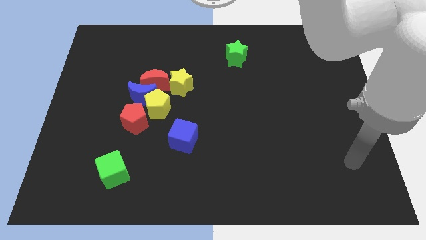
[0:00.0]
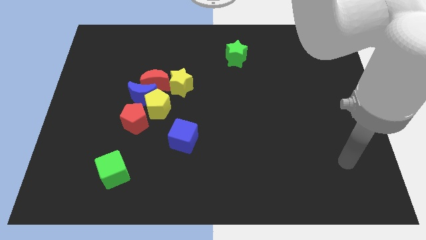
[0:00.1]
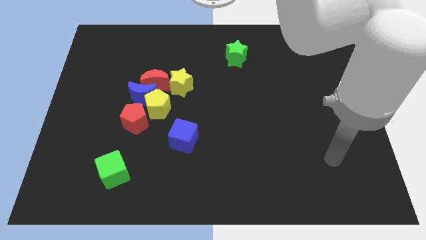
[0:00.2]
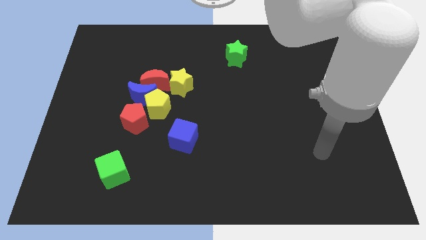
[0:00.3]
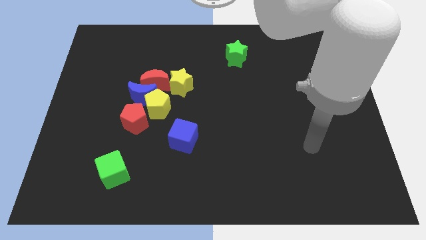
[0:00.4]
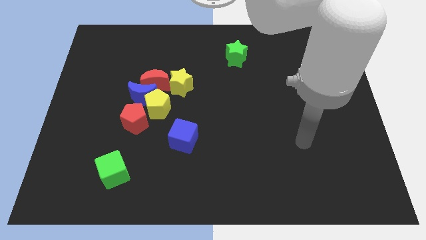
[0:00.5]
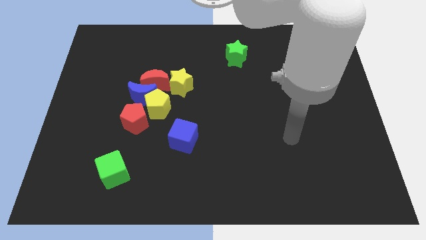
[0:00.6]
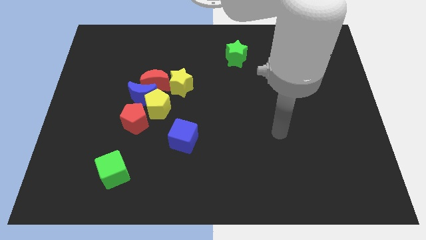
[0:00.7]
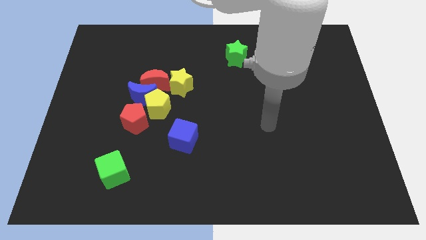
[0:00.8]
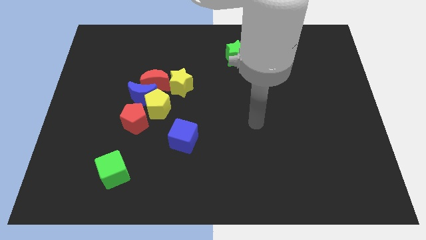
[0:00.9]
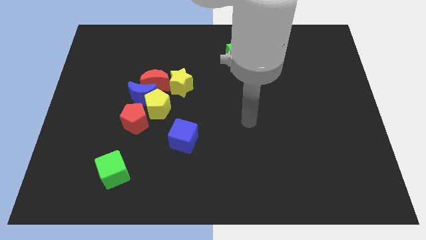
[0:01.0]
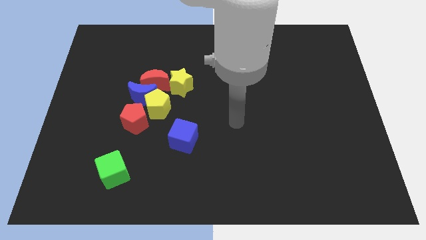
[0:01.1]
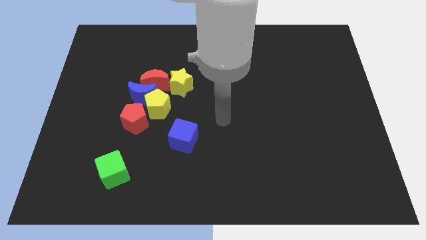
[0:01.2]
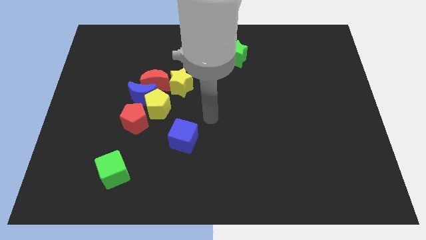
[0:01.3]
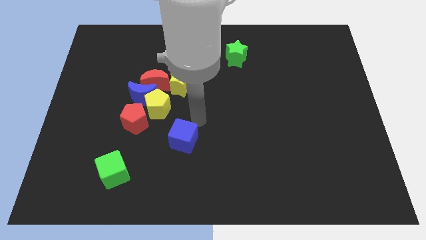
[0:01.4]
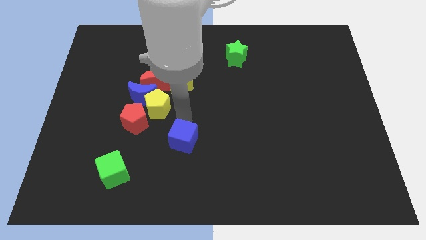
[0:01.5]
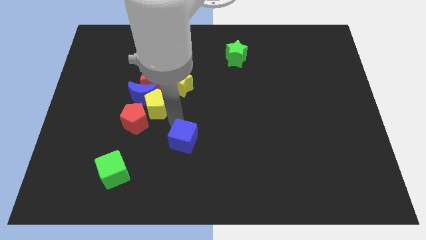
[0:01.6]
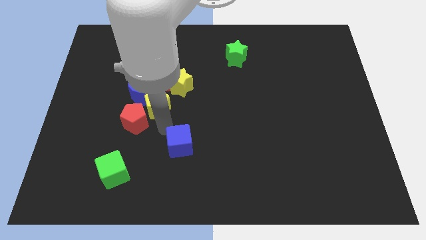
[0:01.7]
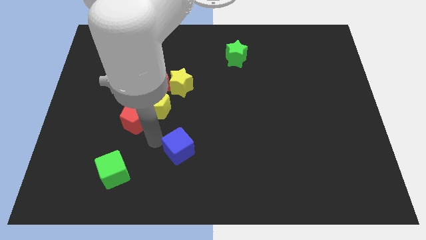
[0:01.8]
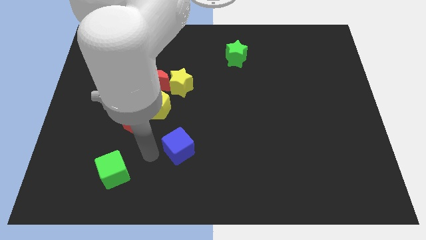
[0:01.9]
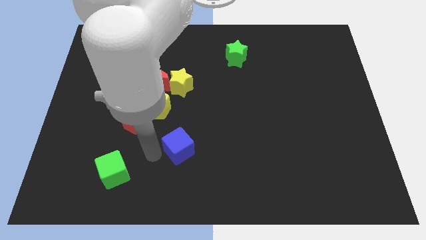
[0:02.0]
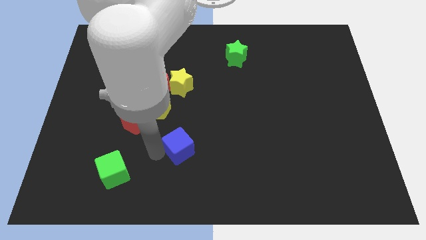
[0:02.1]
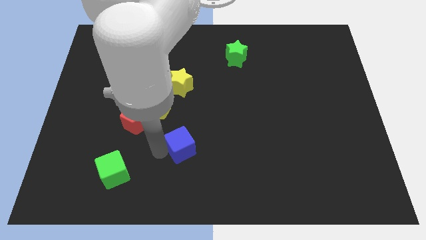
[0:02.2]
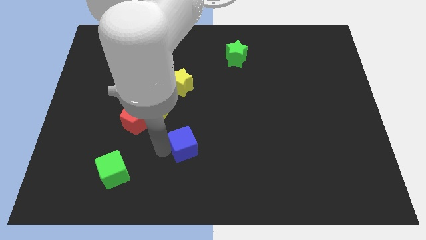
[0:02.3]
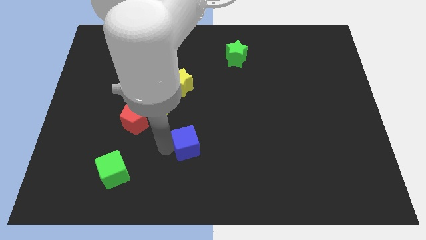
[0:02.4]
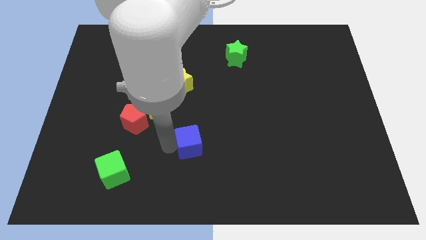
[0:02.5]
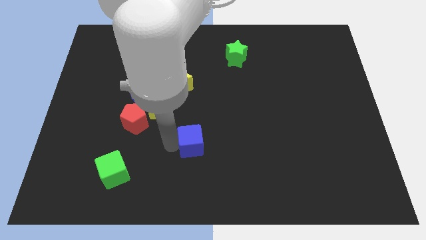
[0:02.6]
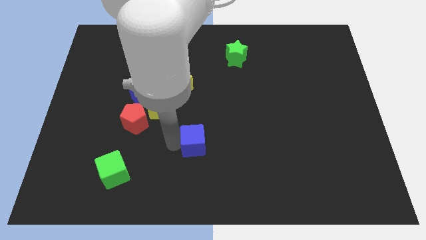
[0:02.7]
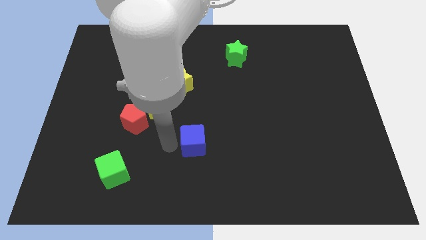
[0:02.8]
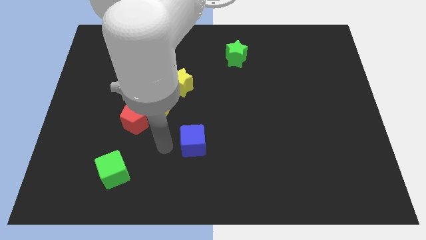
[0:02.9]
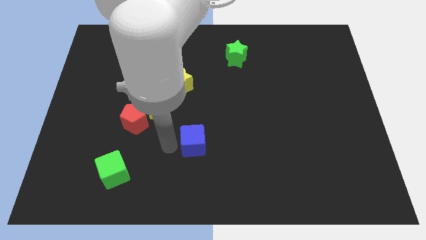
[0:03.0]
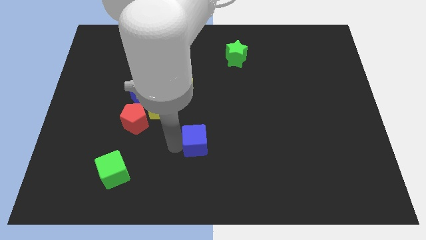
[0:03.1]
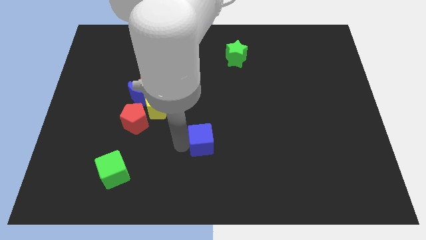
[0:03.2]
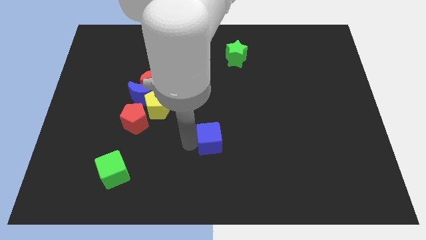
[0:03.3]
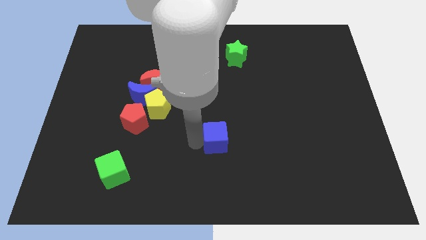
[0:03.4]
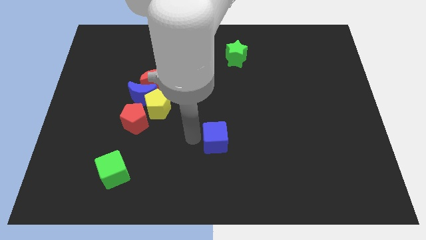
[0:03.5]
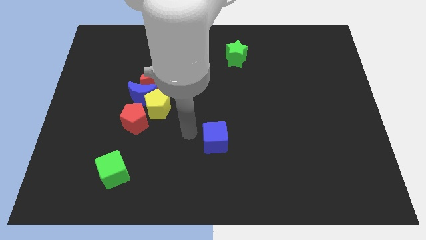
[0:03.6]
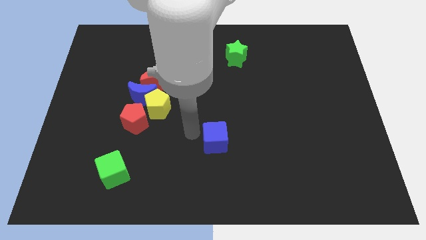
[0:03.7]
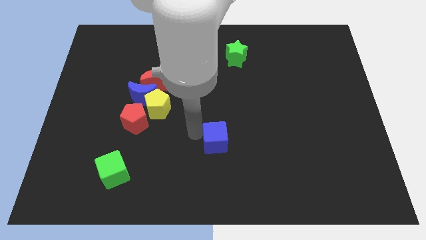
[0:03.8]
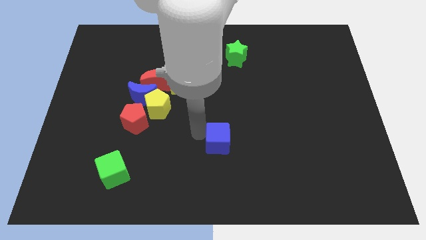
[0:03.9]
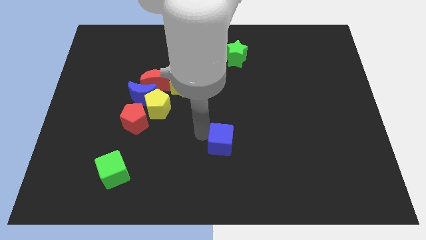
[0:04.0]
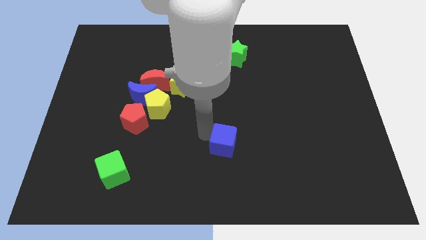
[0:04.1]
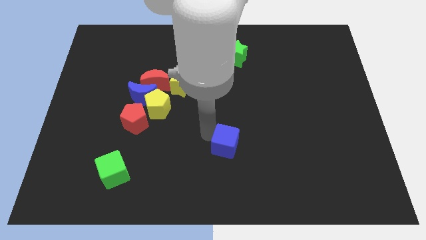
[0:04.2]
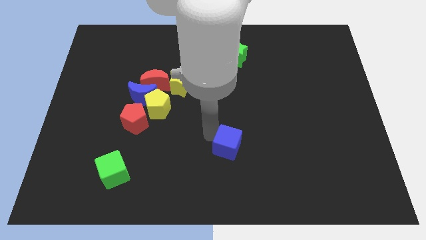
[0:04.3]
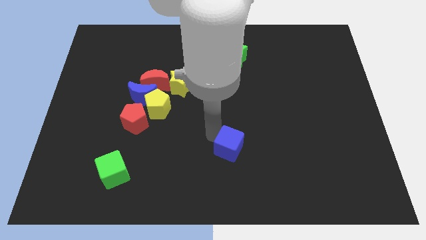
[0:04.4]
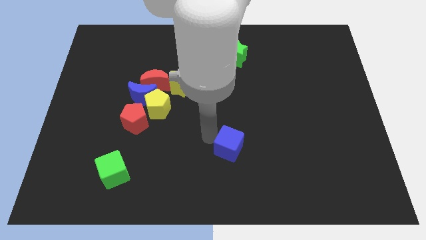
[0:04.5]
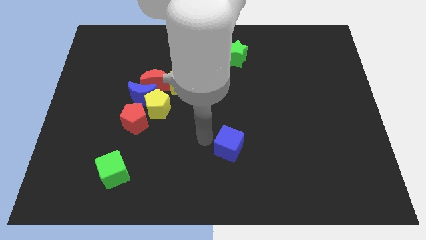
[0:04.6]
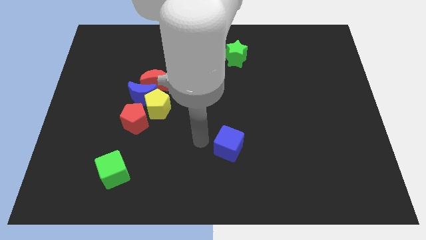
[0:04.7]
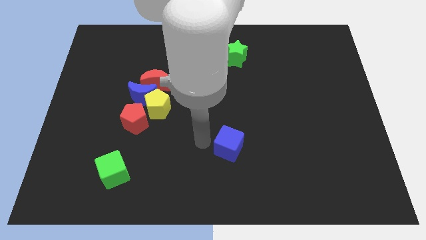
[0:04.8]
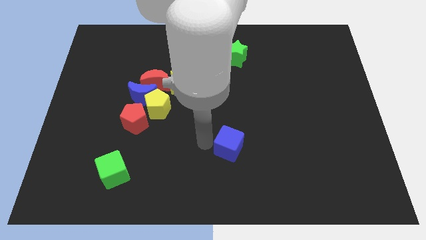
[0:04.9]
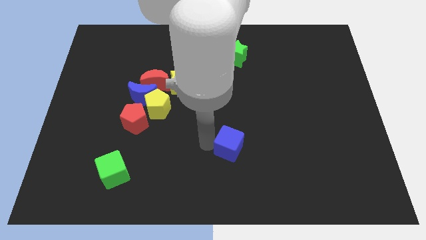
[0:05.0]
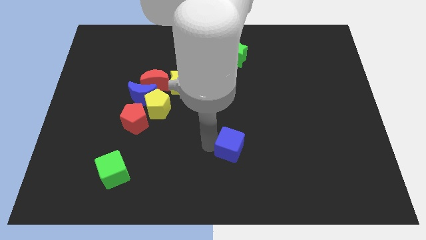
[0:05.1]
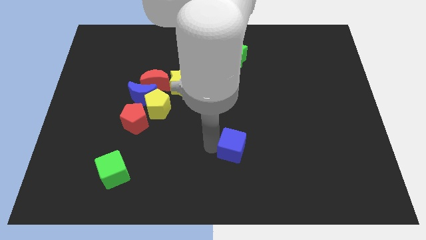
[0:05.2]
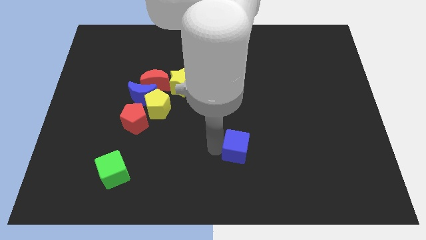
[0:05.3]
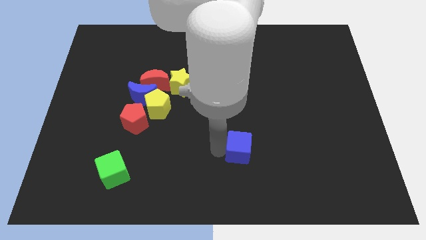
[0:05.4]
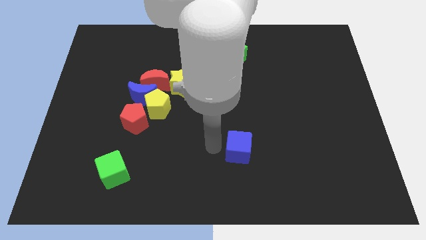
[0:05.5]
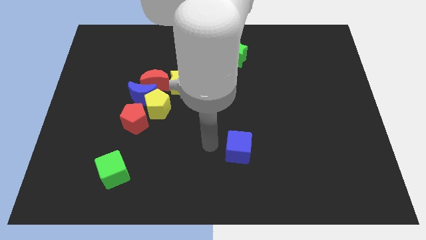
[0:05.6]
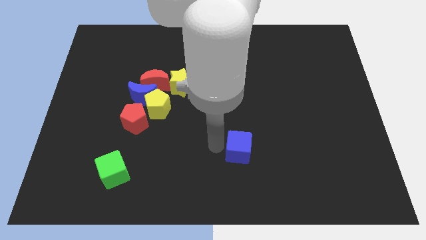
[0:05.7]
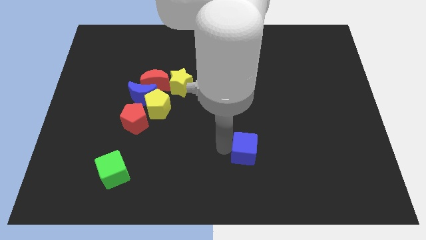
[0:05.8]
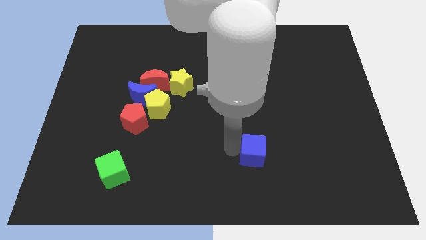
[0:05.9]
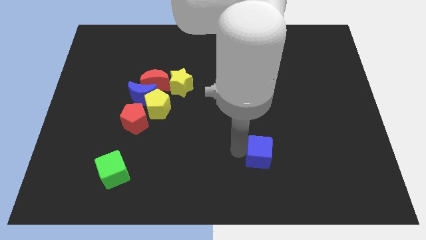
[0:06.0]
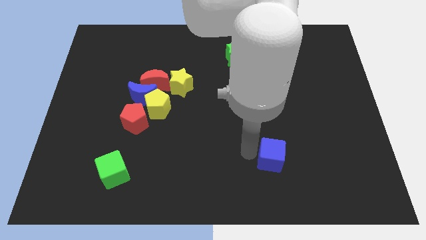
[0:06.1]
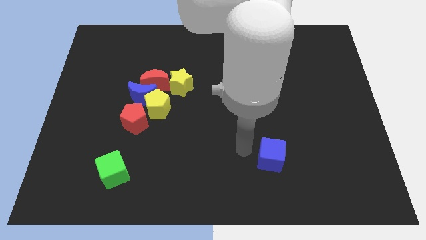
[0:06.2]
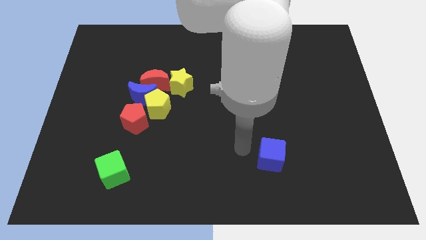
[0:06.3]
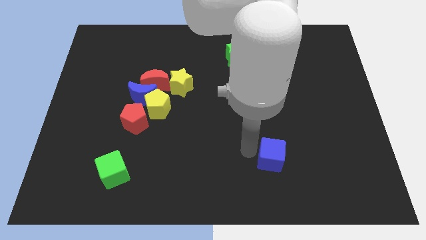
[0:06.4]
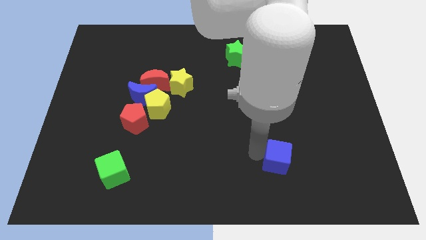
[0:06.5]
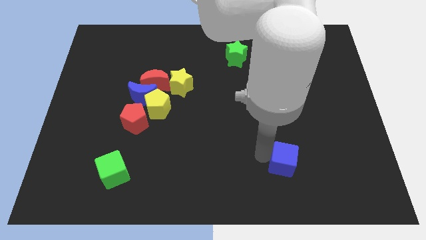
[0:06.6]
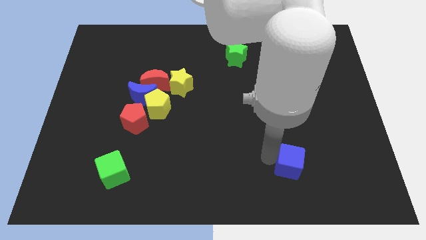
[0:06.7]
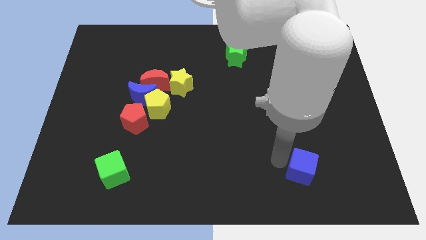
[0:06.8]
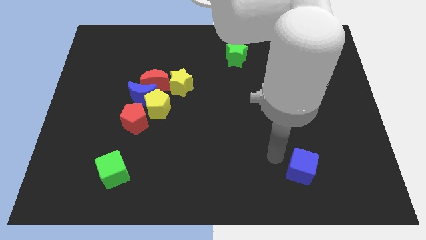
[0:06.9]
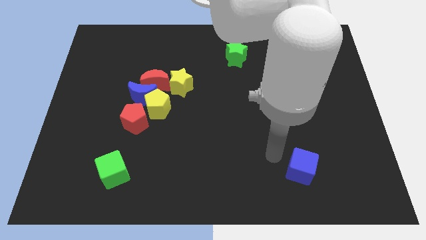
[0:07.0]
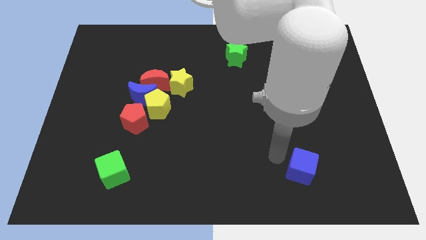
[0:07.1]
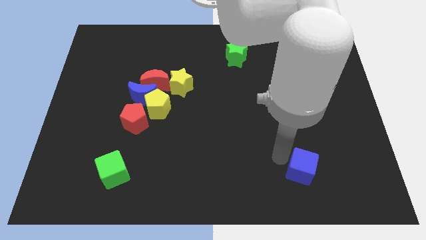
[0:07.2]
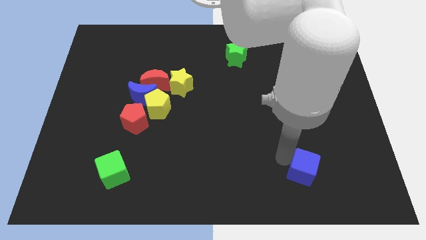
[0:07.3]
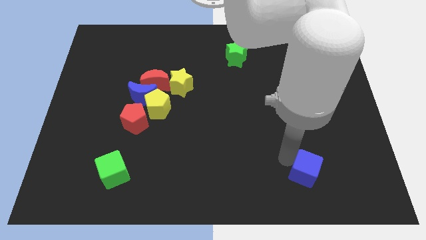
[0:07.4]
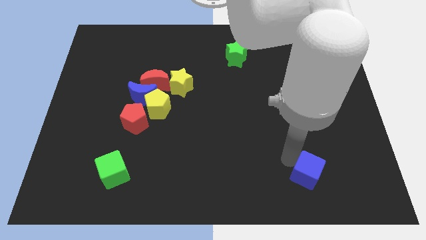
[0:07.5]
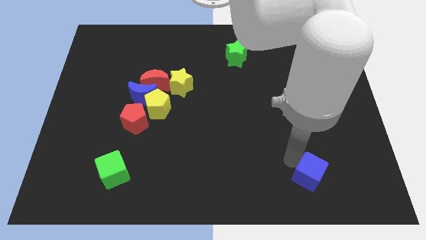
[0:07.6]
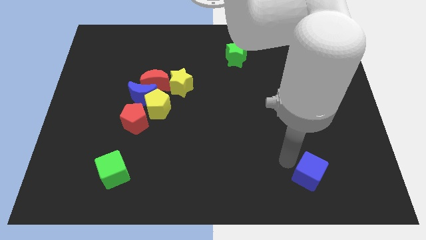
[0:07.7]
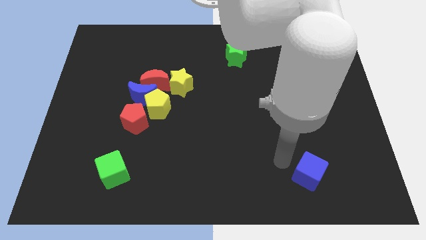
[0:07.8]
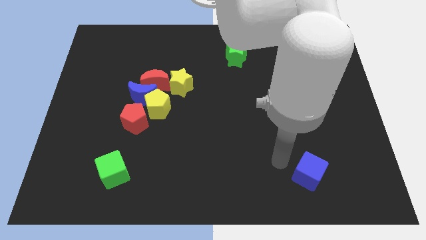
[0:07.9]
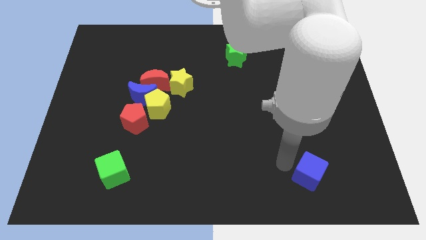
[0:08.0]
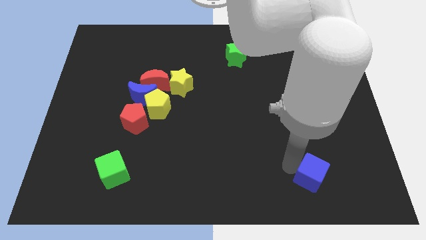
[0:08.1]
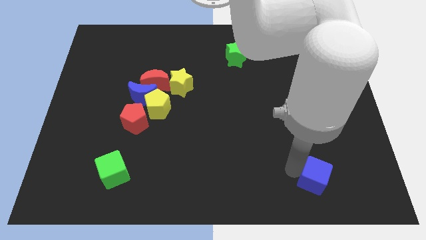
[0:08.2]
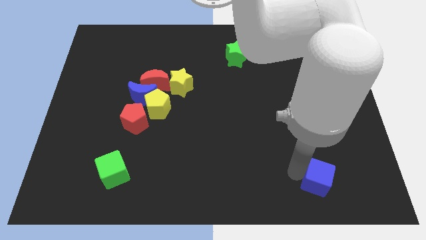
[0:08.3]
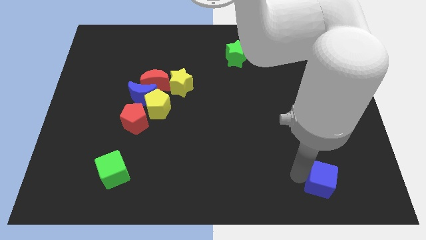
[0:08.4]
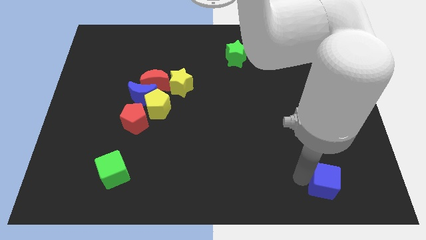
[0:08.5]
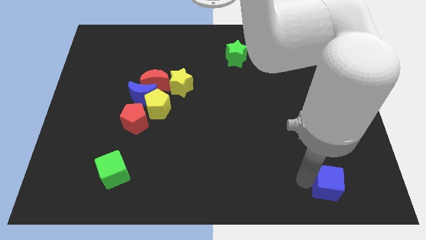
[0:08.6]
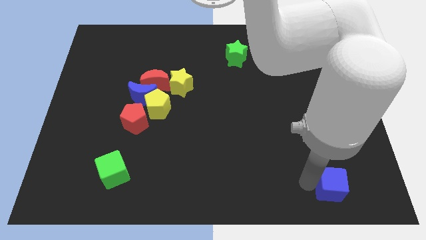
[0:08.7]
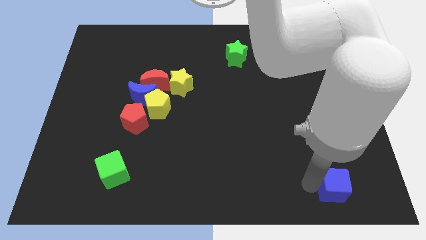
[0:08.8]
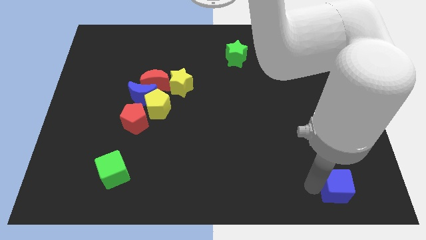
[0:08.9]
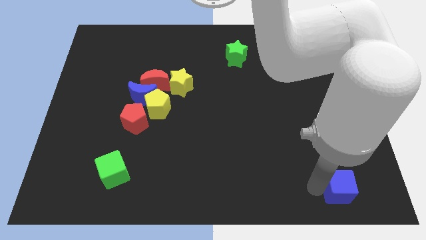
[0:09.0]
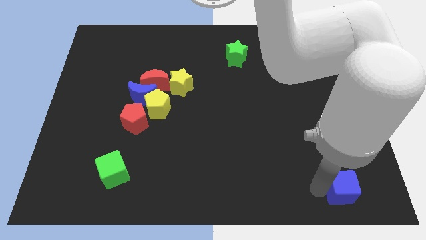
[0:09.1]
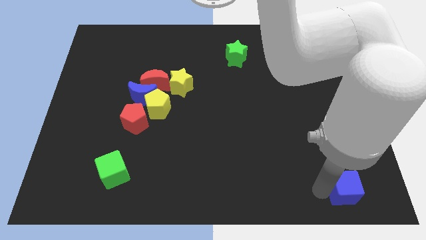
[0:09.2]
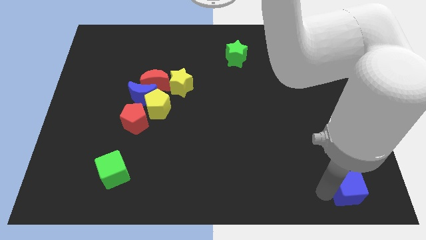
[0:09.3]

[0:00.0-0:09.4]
push the blue cube to the bottom right of the board
